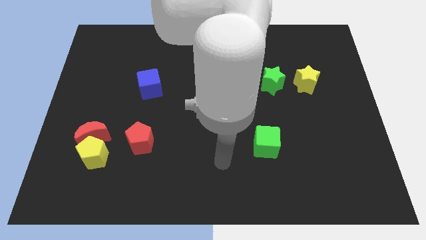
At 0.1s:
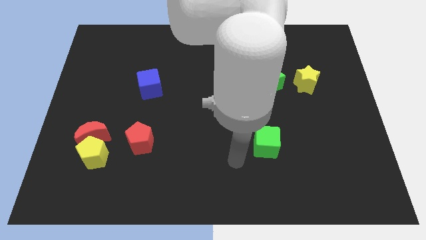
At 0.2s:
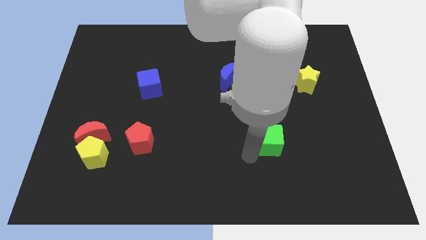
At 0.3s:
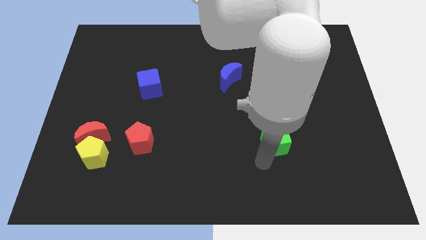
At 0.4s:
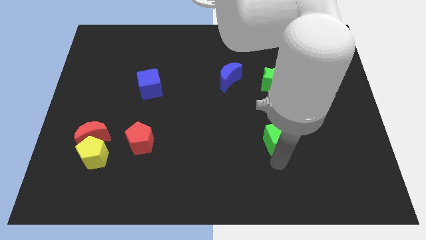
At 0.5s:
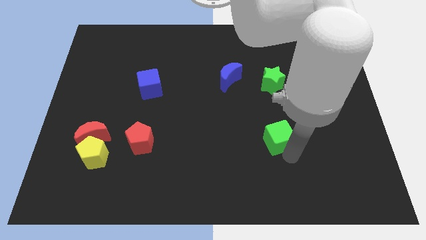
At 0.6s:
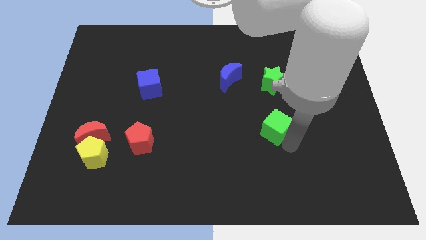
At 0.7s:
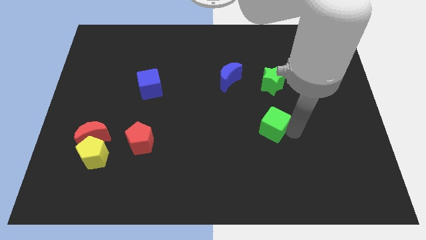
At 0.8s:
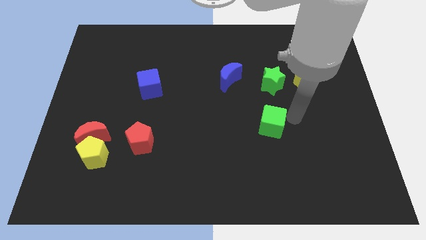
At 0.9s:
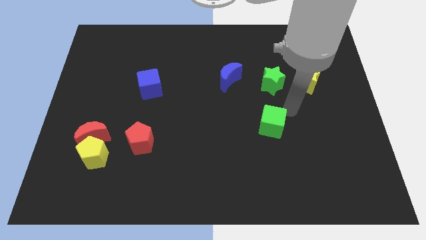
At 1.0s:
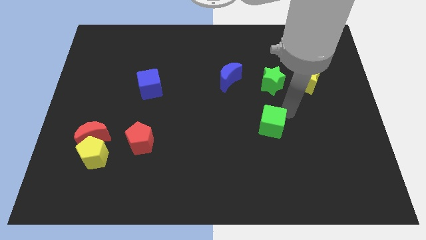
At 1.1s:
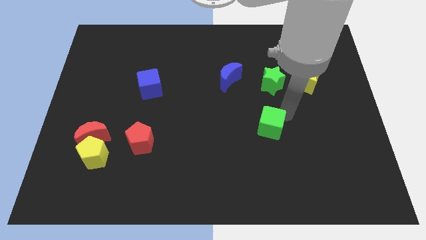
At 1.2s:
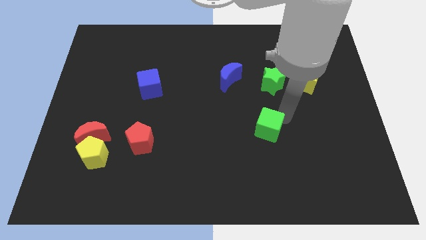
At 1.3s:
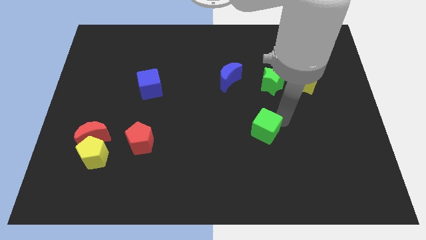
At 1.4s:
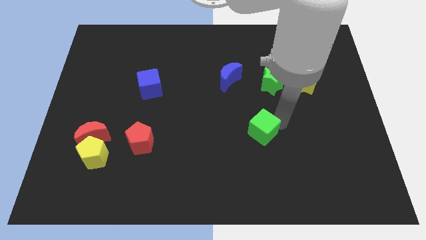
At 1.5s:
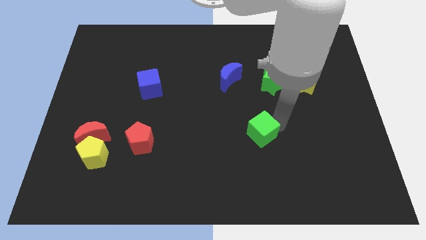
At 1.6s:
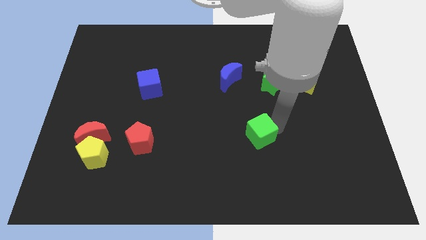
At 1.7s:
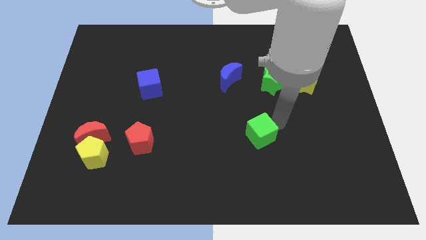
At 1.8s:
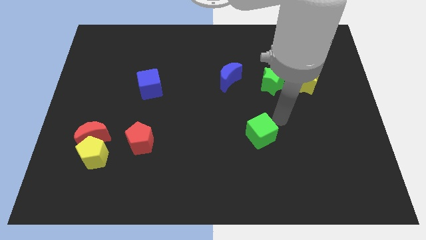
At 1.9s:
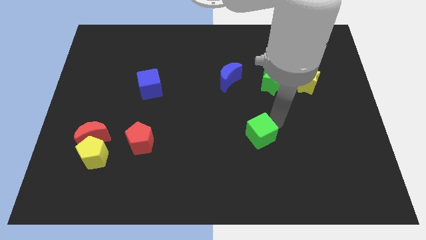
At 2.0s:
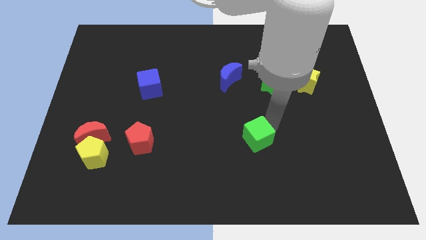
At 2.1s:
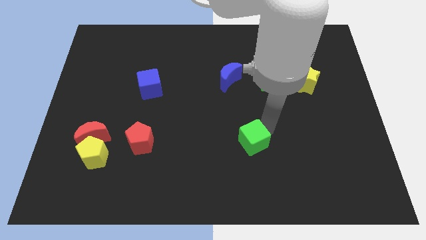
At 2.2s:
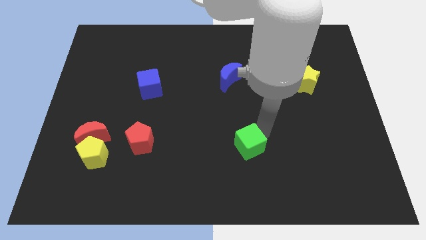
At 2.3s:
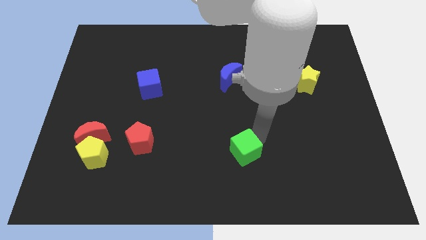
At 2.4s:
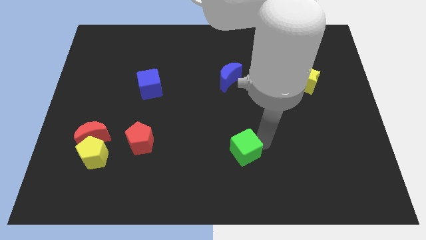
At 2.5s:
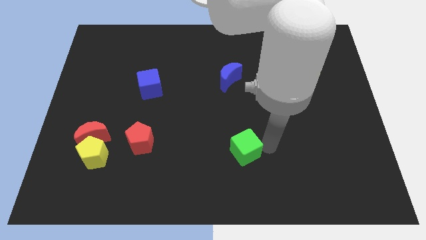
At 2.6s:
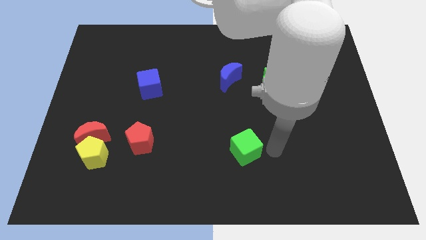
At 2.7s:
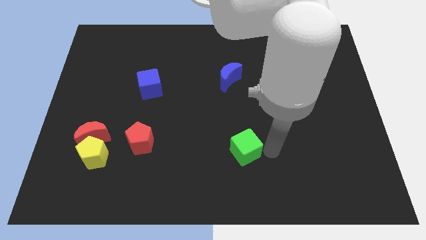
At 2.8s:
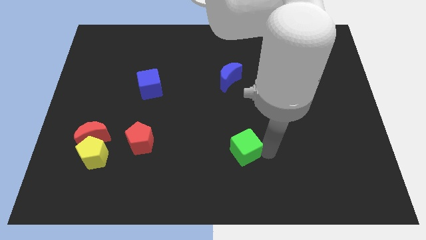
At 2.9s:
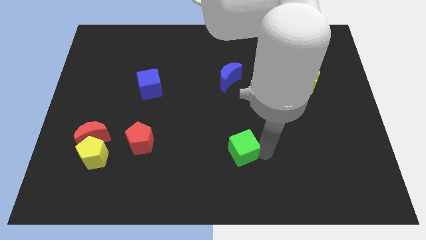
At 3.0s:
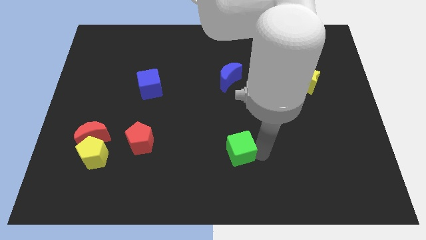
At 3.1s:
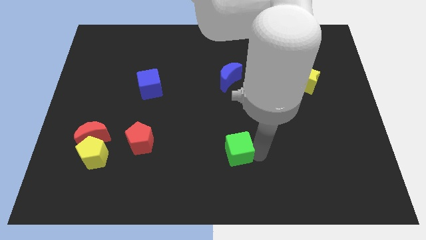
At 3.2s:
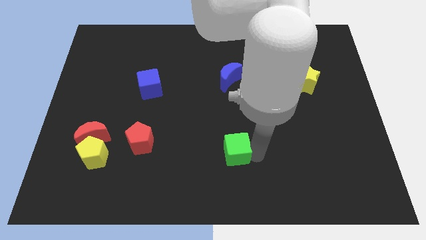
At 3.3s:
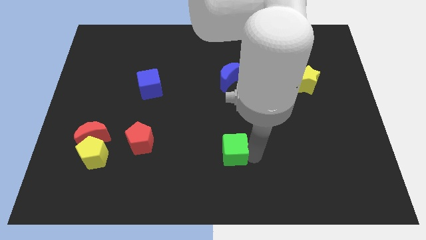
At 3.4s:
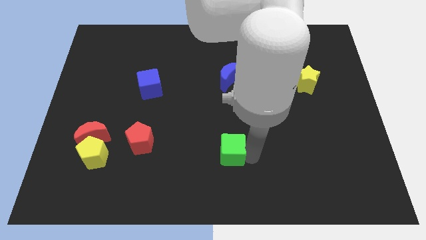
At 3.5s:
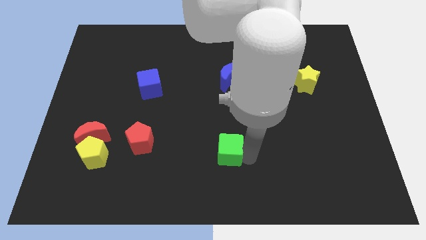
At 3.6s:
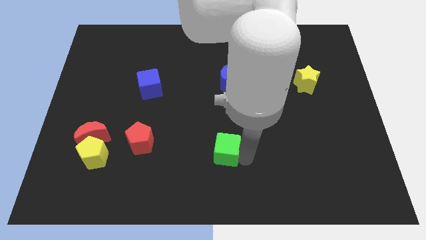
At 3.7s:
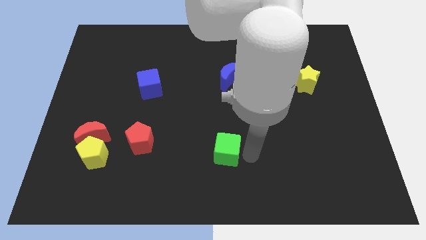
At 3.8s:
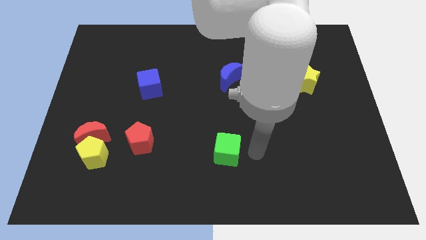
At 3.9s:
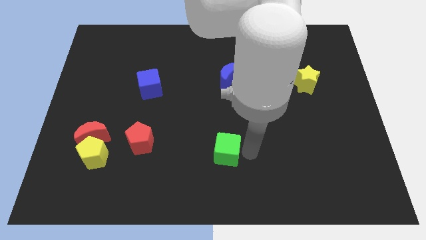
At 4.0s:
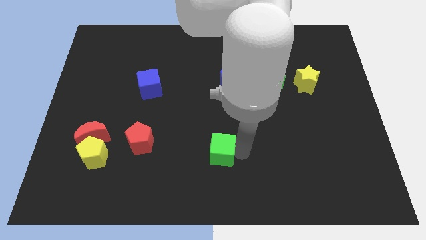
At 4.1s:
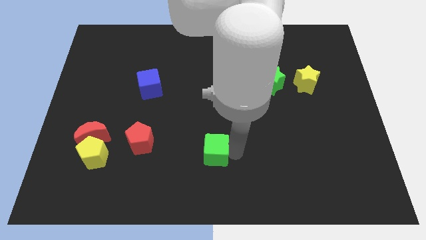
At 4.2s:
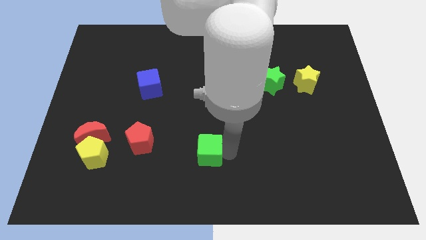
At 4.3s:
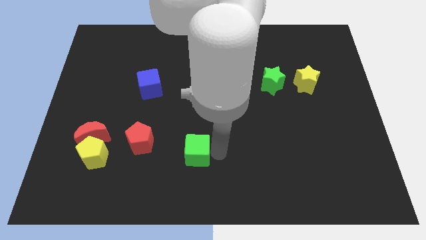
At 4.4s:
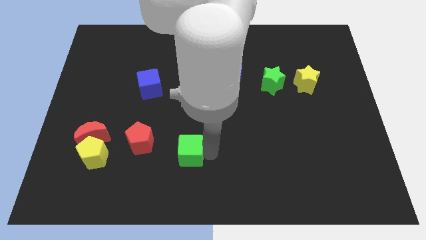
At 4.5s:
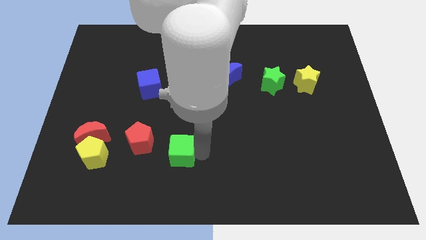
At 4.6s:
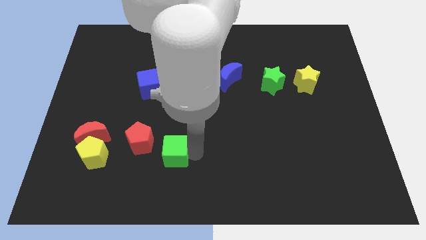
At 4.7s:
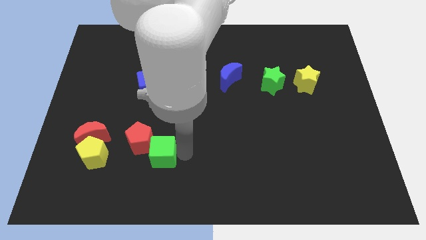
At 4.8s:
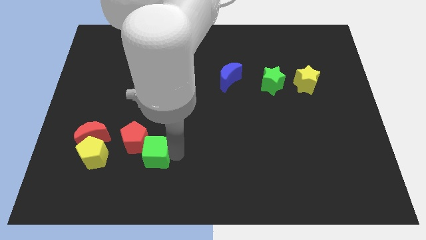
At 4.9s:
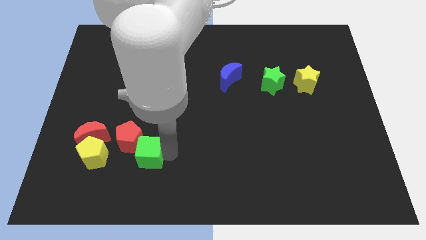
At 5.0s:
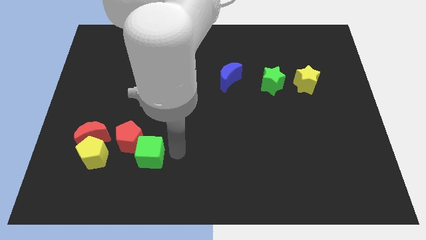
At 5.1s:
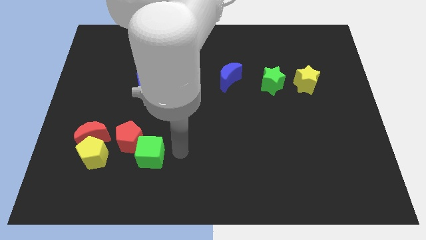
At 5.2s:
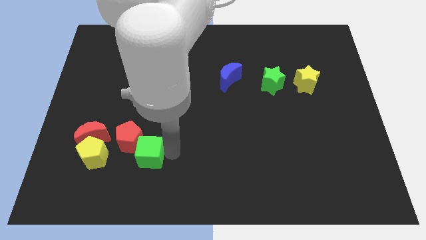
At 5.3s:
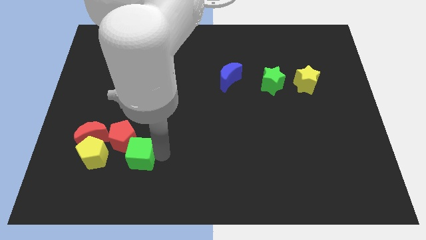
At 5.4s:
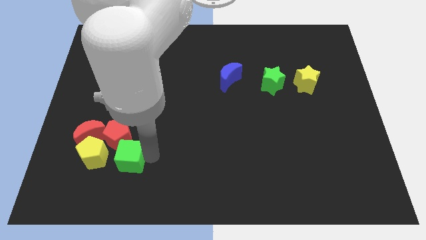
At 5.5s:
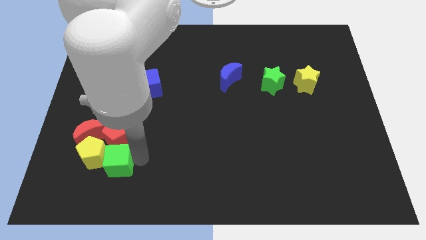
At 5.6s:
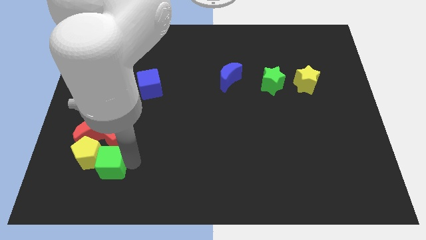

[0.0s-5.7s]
slide the green cube diagonally down and to the left of the red pentagon

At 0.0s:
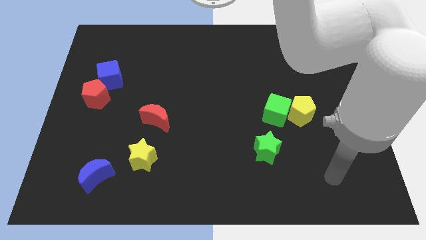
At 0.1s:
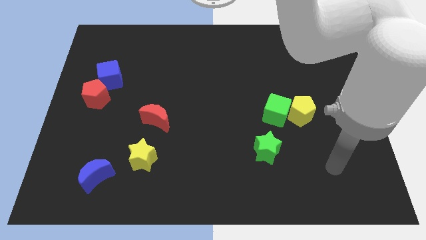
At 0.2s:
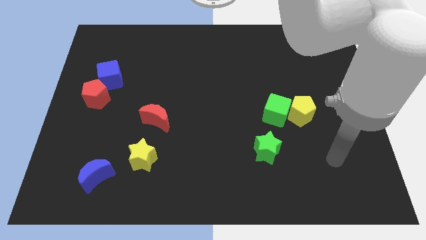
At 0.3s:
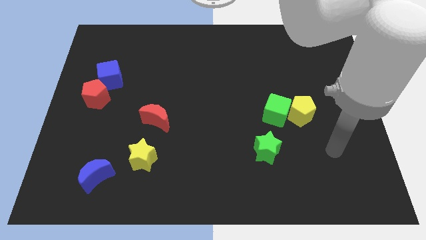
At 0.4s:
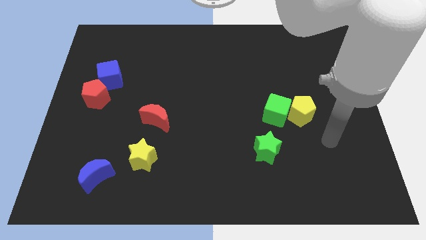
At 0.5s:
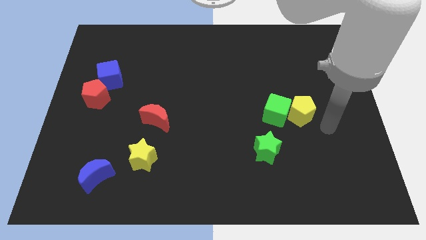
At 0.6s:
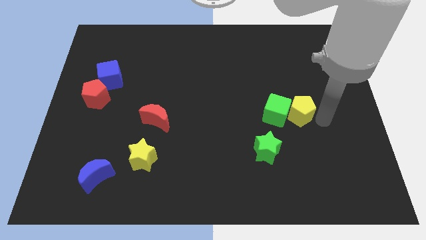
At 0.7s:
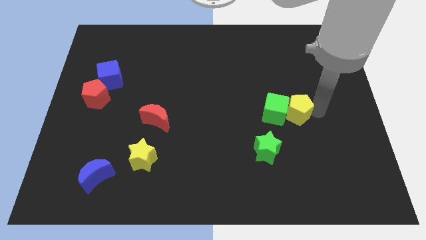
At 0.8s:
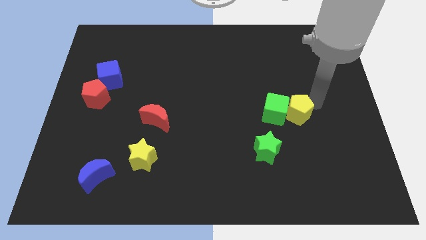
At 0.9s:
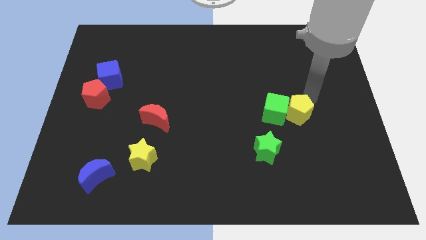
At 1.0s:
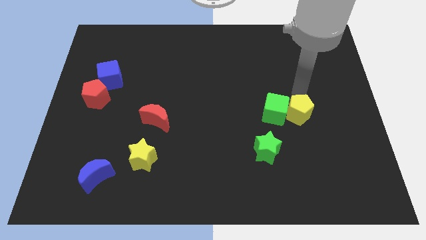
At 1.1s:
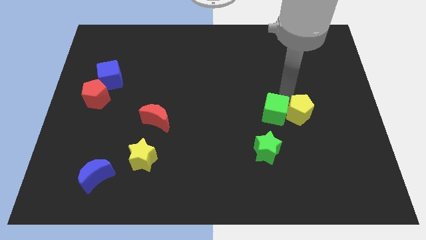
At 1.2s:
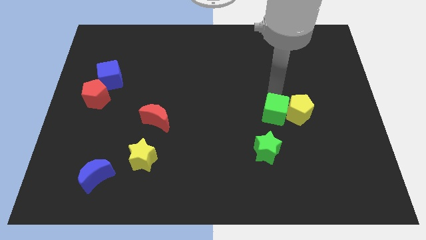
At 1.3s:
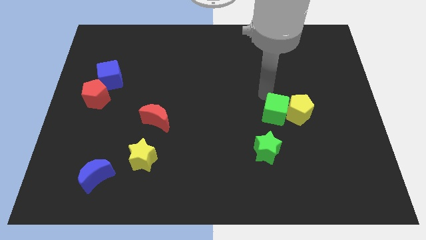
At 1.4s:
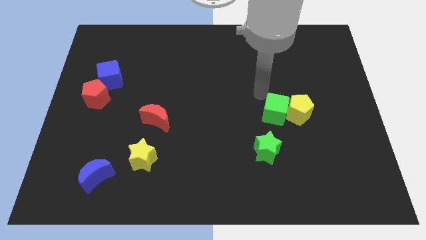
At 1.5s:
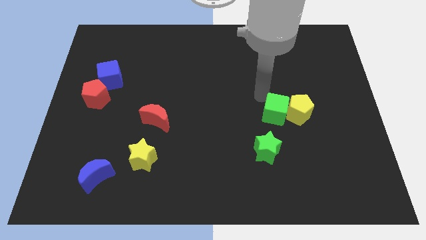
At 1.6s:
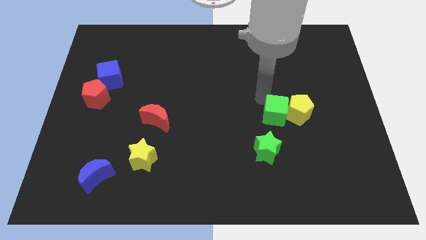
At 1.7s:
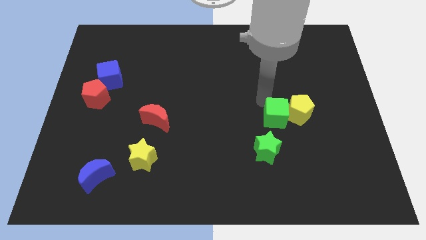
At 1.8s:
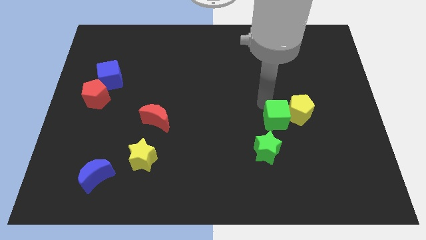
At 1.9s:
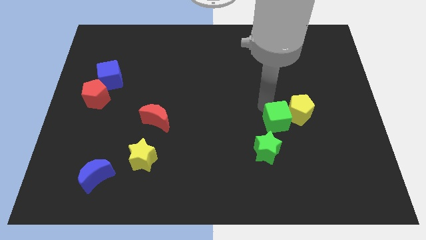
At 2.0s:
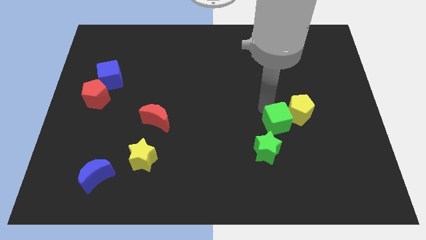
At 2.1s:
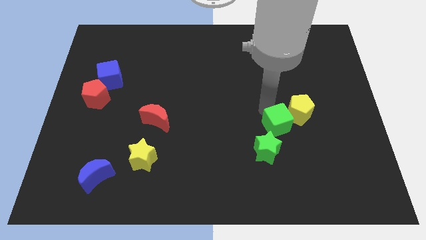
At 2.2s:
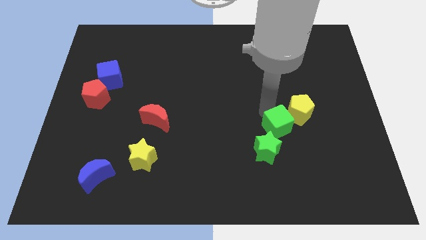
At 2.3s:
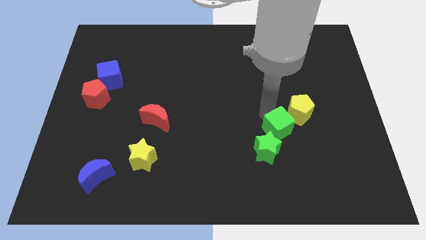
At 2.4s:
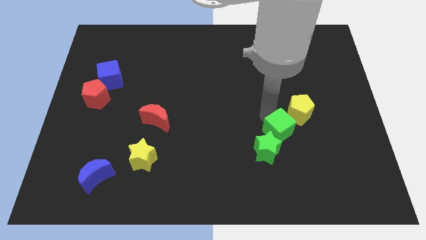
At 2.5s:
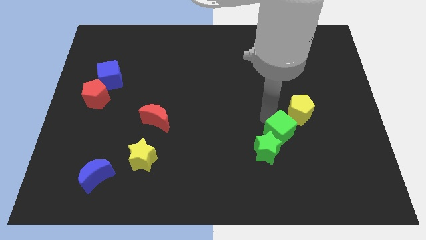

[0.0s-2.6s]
slide the green cube to the bottom side of the yellow pentagon
